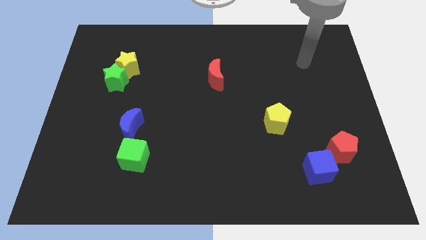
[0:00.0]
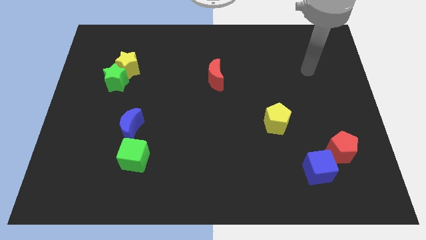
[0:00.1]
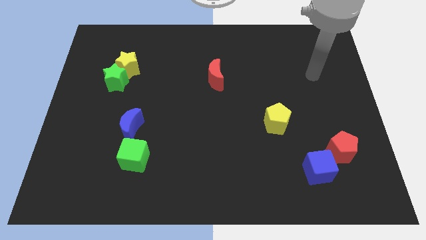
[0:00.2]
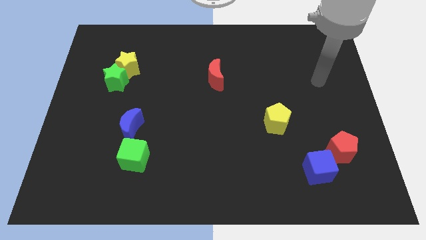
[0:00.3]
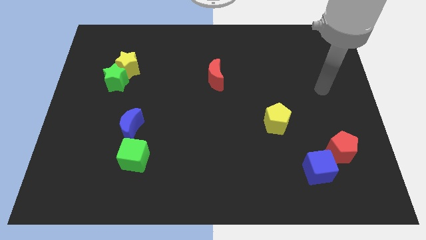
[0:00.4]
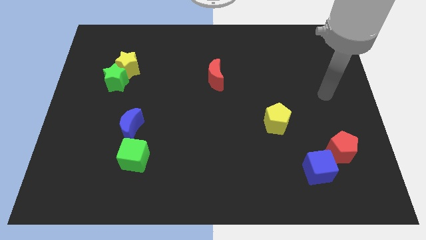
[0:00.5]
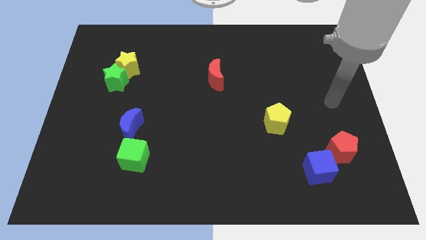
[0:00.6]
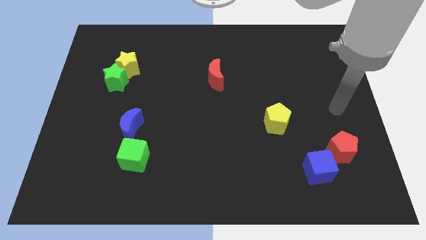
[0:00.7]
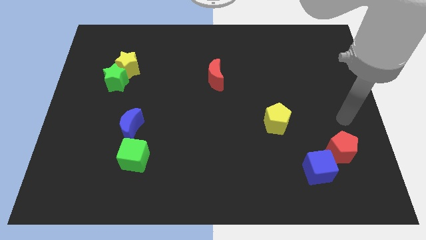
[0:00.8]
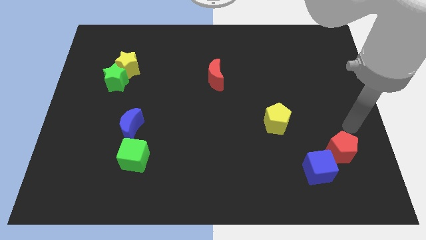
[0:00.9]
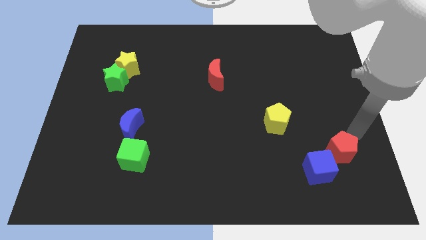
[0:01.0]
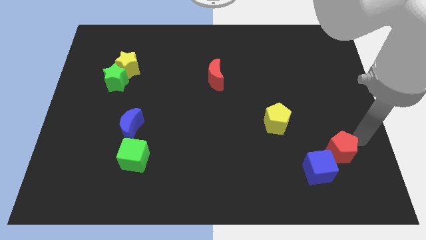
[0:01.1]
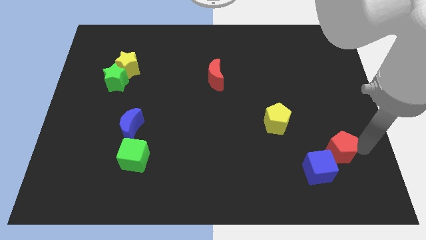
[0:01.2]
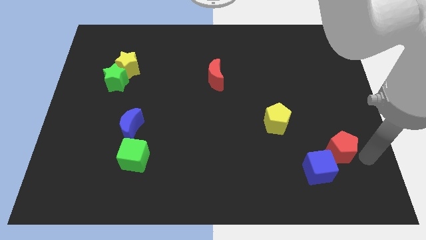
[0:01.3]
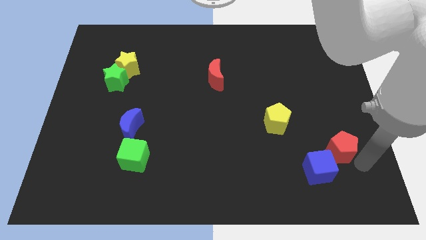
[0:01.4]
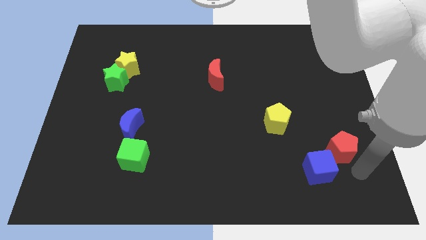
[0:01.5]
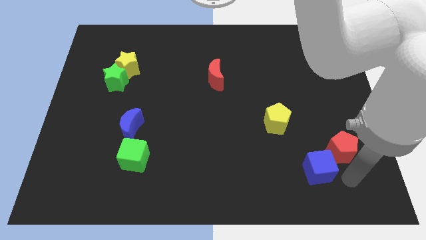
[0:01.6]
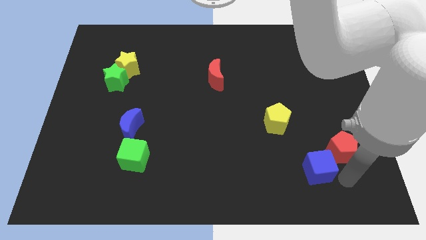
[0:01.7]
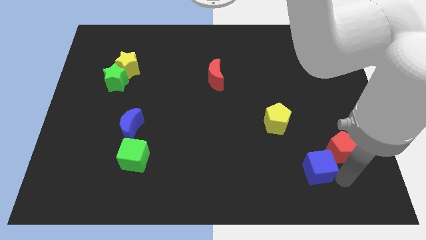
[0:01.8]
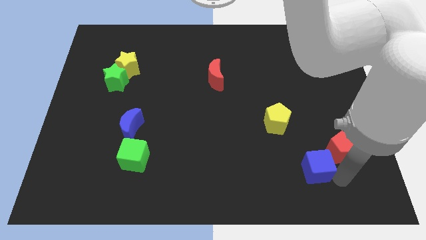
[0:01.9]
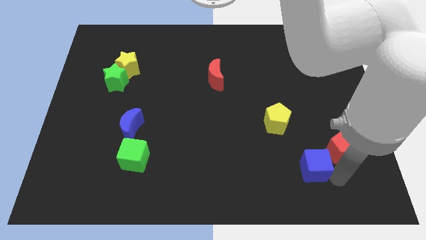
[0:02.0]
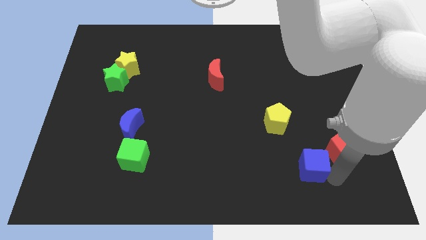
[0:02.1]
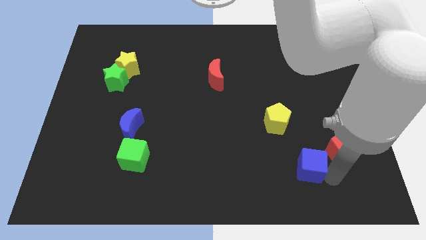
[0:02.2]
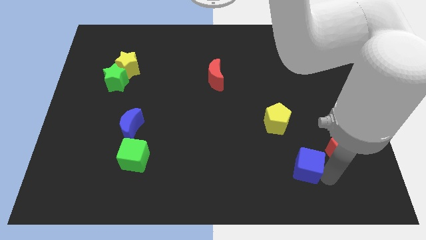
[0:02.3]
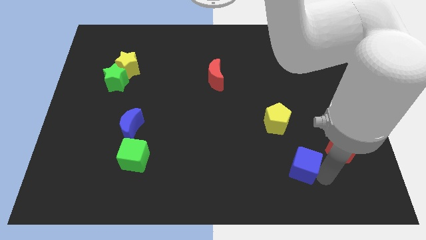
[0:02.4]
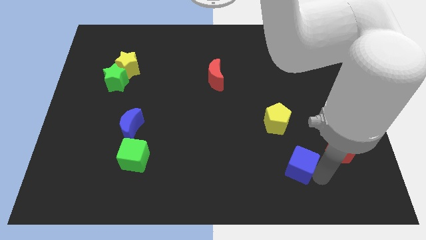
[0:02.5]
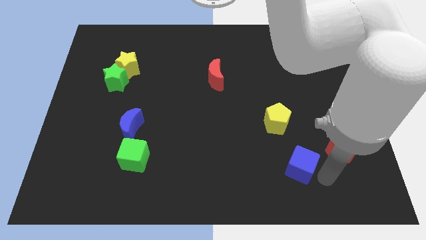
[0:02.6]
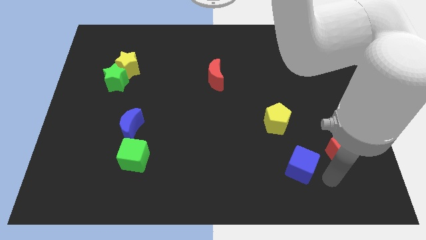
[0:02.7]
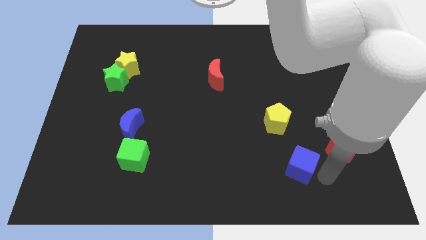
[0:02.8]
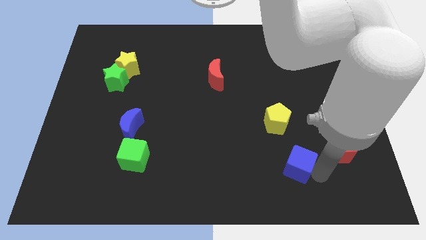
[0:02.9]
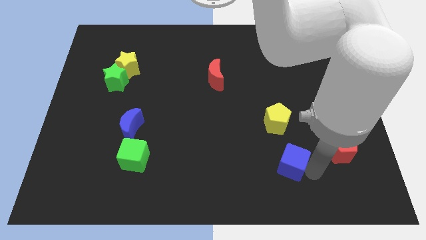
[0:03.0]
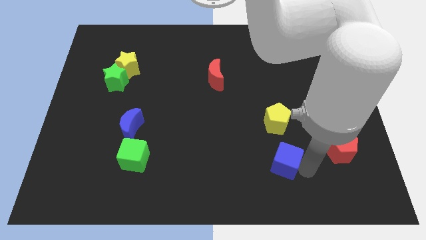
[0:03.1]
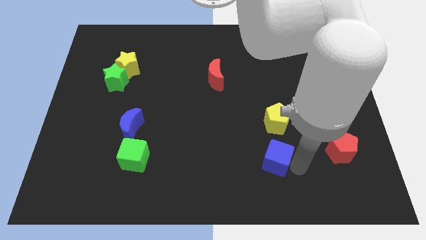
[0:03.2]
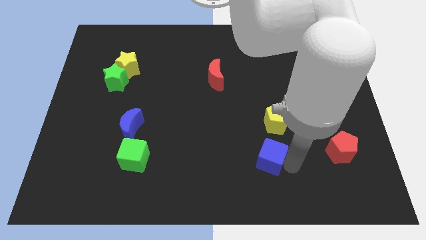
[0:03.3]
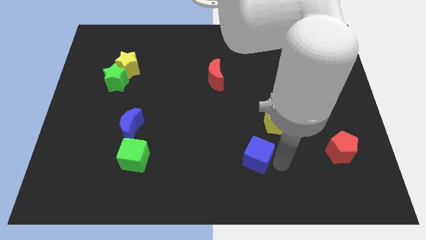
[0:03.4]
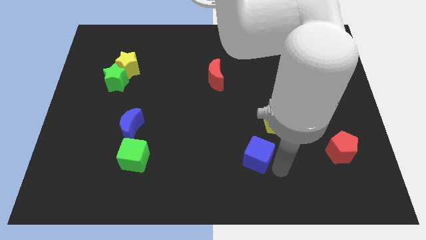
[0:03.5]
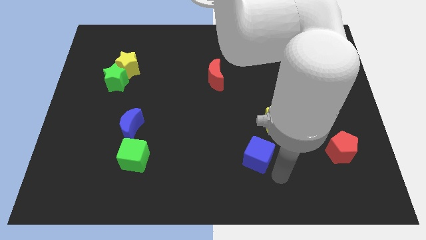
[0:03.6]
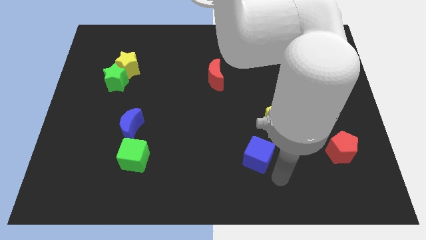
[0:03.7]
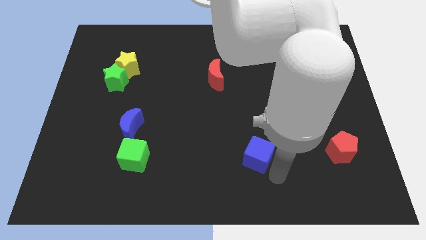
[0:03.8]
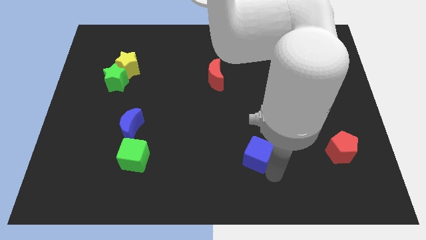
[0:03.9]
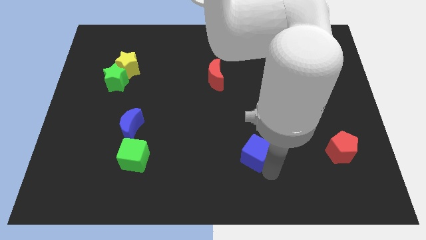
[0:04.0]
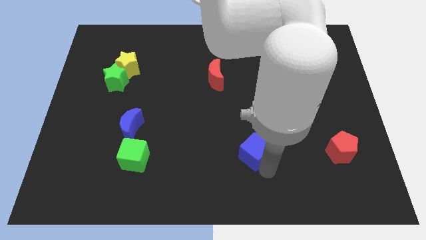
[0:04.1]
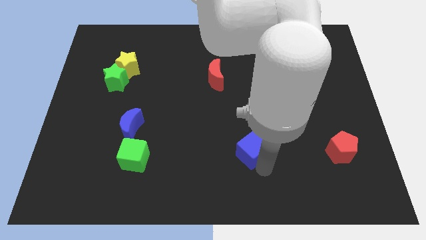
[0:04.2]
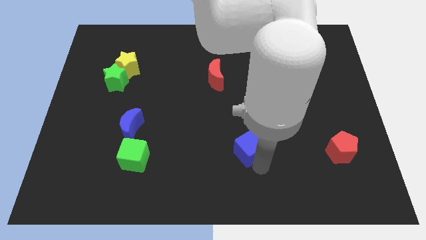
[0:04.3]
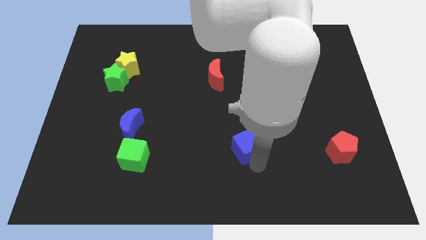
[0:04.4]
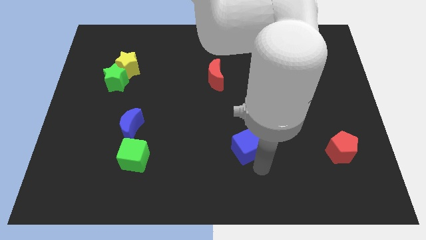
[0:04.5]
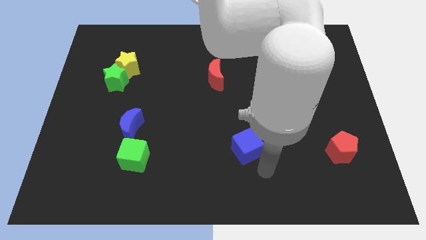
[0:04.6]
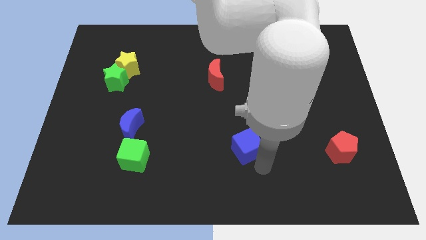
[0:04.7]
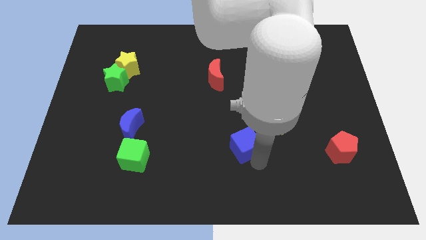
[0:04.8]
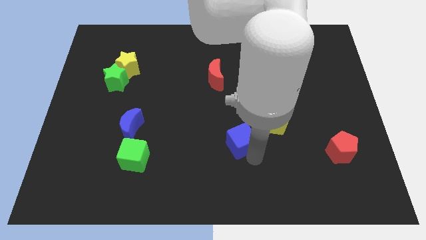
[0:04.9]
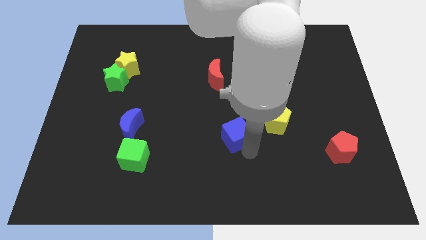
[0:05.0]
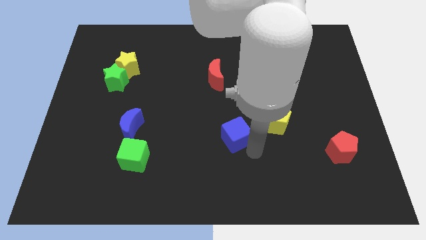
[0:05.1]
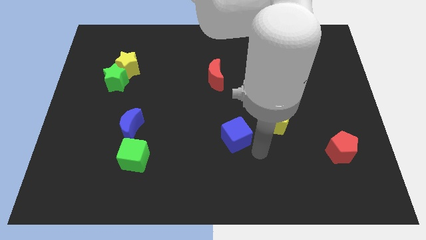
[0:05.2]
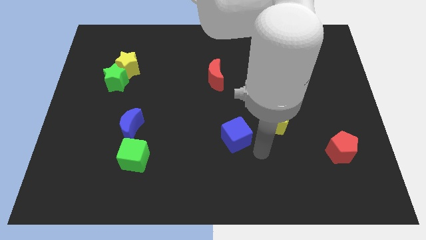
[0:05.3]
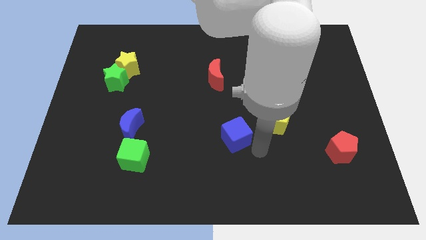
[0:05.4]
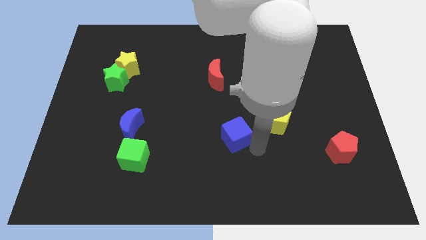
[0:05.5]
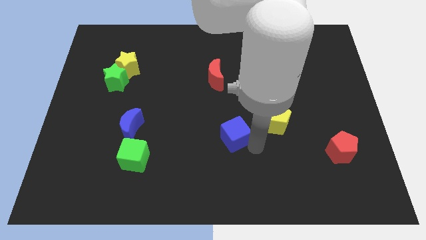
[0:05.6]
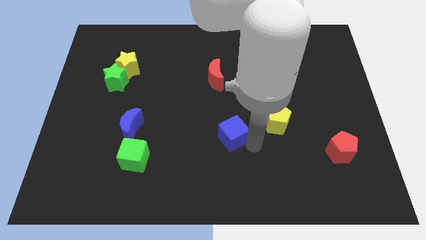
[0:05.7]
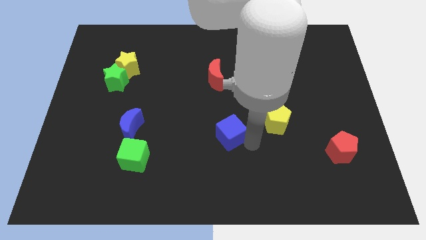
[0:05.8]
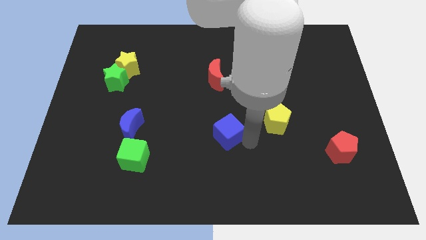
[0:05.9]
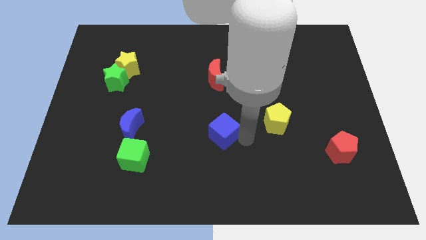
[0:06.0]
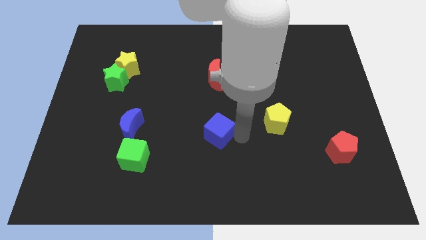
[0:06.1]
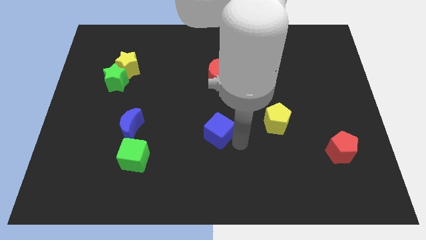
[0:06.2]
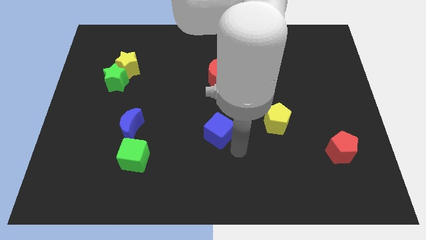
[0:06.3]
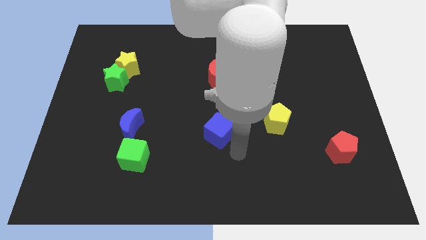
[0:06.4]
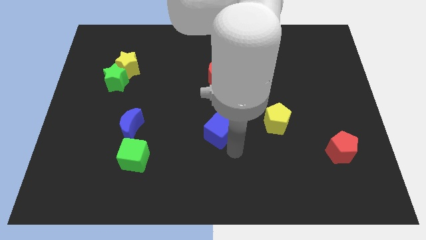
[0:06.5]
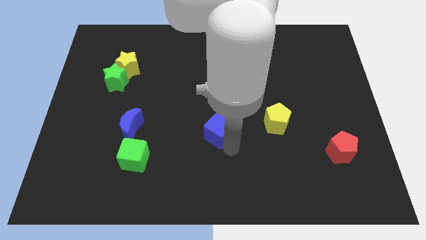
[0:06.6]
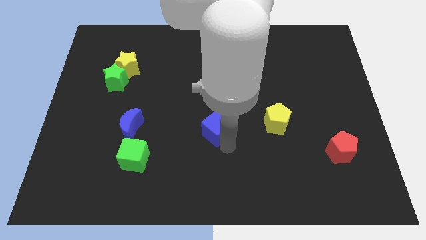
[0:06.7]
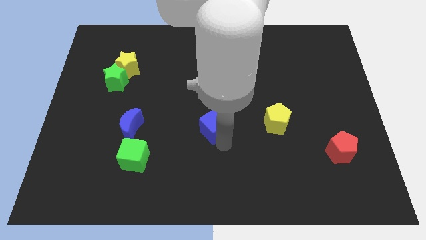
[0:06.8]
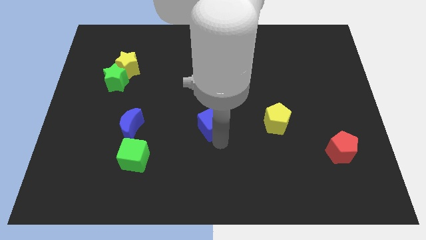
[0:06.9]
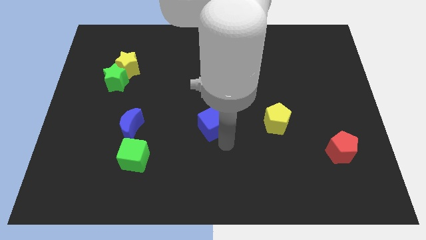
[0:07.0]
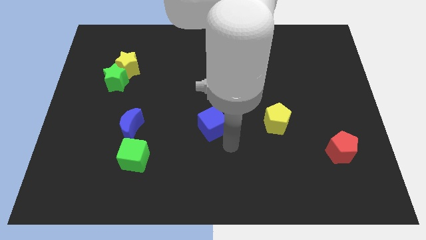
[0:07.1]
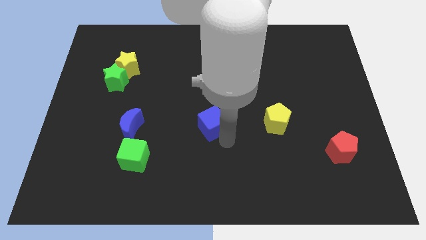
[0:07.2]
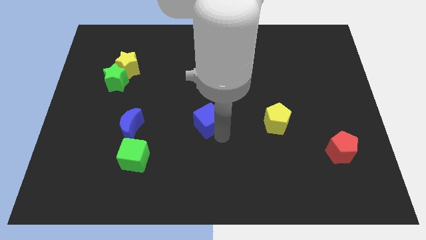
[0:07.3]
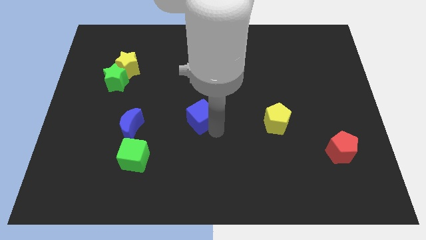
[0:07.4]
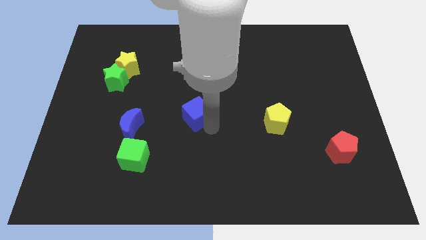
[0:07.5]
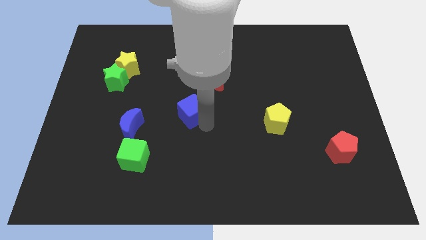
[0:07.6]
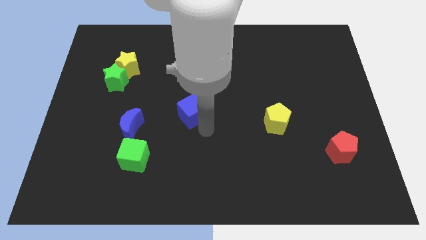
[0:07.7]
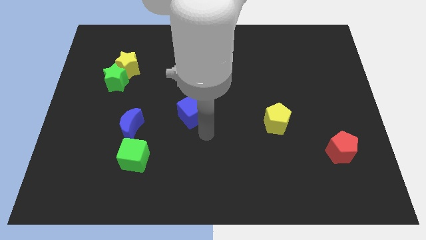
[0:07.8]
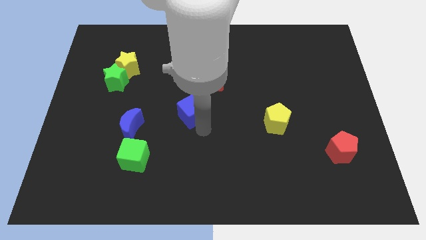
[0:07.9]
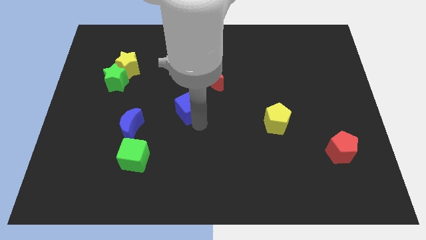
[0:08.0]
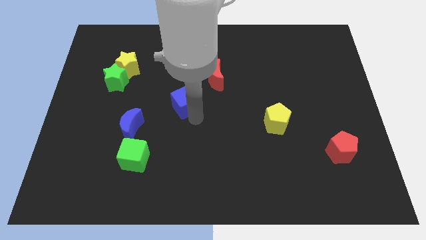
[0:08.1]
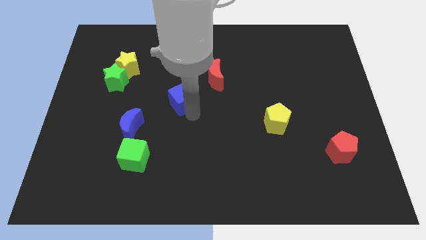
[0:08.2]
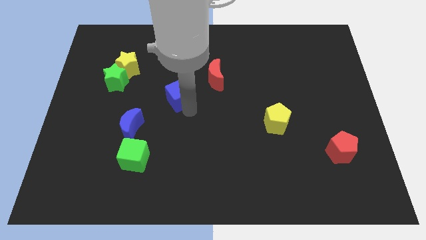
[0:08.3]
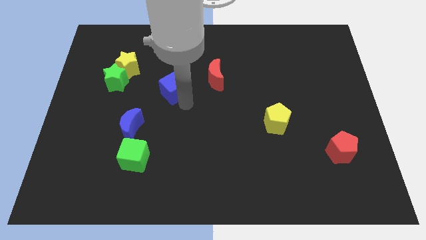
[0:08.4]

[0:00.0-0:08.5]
move the blue cube right of the green star
